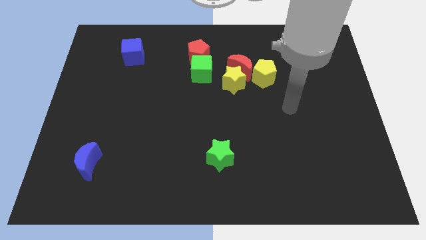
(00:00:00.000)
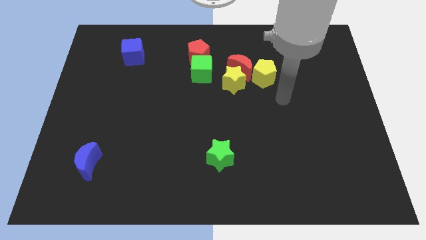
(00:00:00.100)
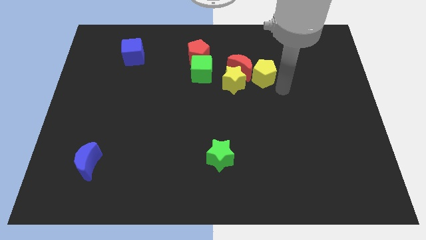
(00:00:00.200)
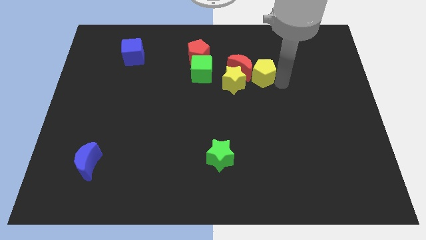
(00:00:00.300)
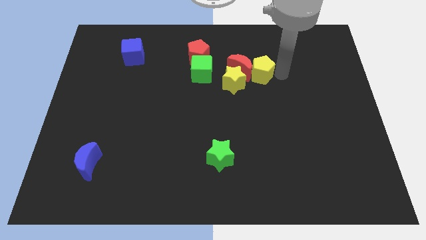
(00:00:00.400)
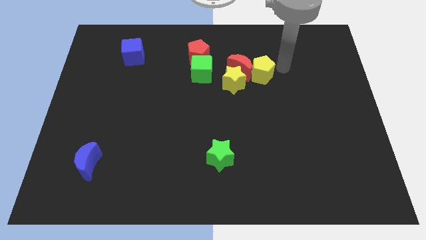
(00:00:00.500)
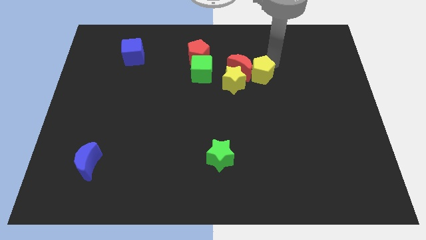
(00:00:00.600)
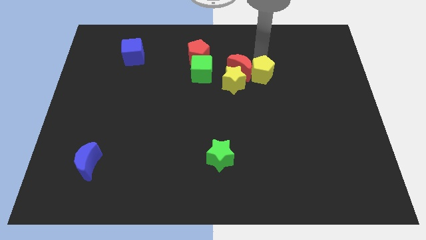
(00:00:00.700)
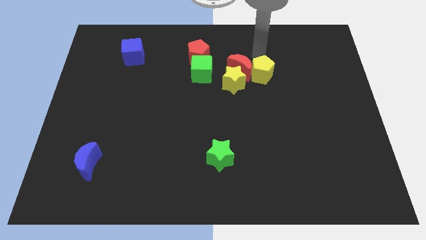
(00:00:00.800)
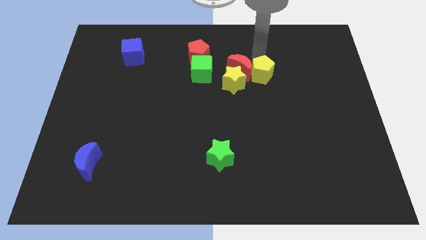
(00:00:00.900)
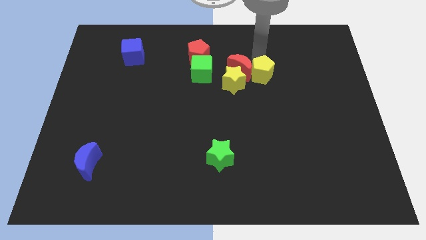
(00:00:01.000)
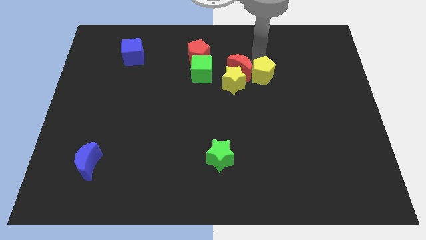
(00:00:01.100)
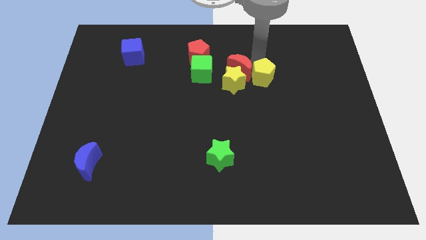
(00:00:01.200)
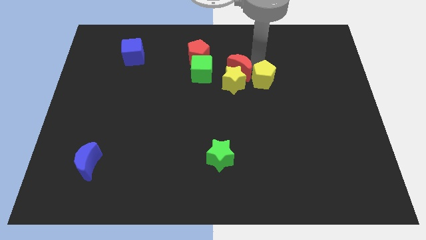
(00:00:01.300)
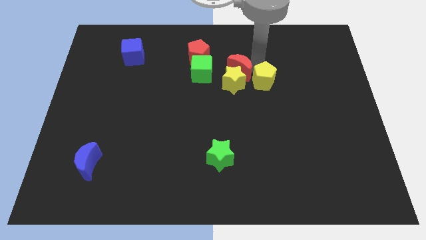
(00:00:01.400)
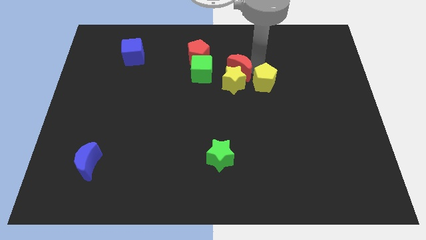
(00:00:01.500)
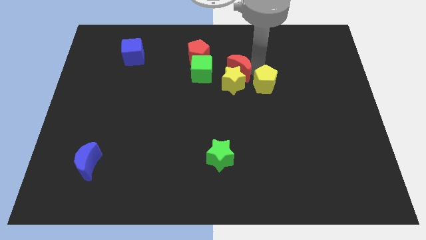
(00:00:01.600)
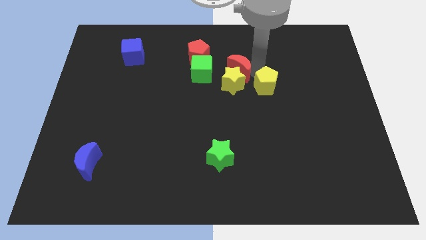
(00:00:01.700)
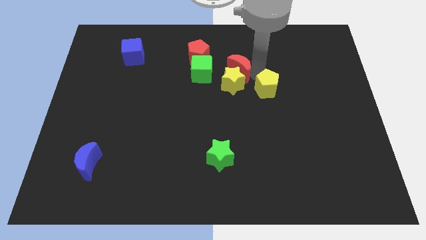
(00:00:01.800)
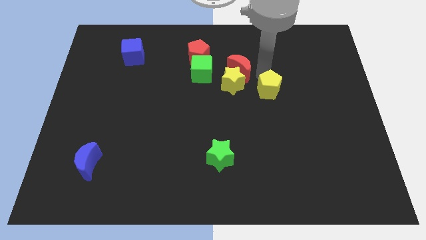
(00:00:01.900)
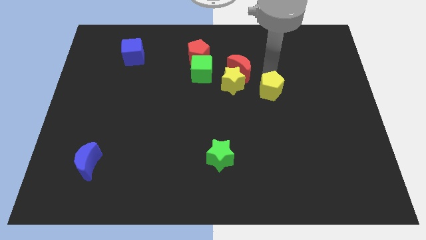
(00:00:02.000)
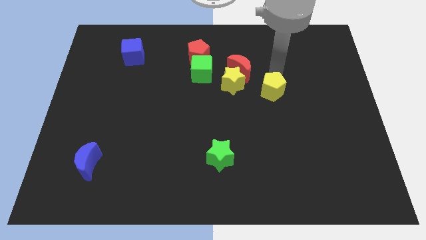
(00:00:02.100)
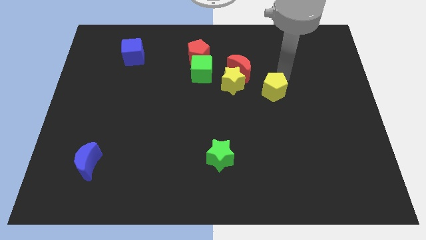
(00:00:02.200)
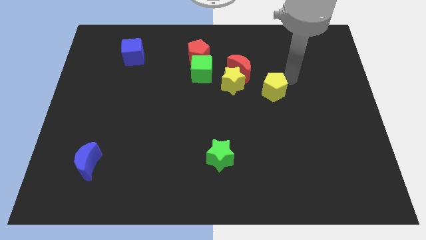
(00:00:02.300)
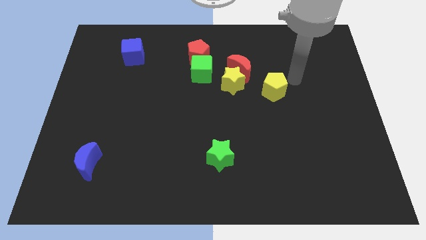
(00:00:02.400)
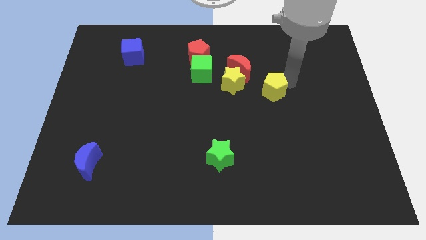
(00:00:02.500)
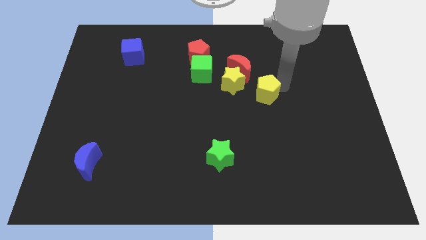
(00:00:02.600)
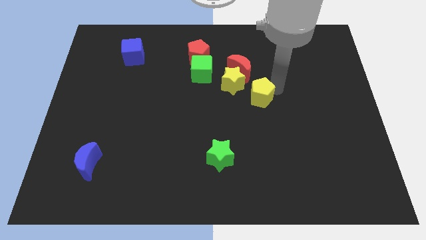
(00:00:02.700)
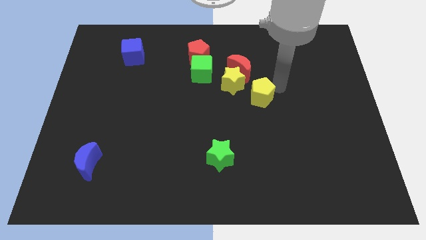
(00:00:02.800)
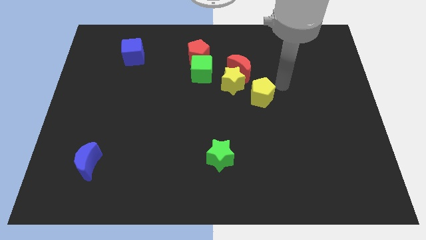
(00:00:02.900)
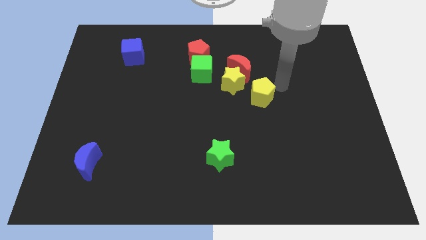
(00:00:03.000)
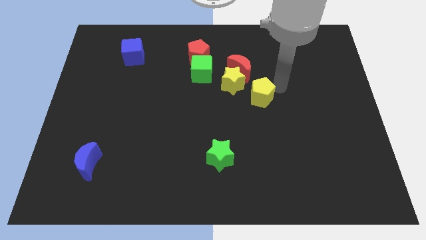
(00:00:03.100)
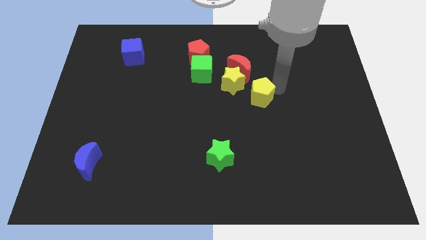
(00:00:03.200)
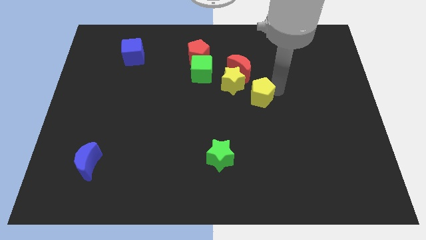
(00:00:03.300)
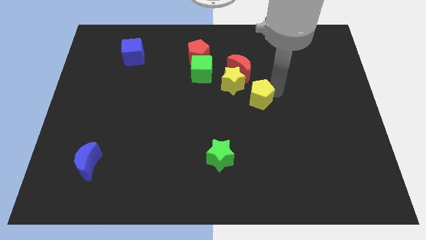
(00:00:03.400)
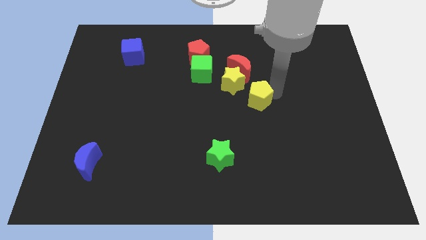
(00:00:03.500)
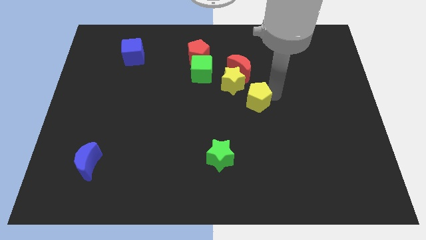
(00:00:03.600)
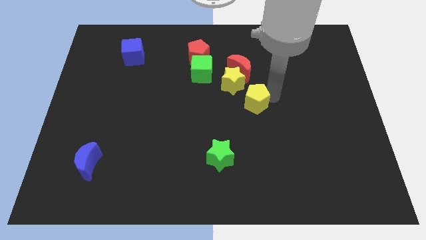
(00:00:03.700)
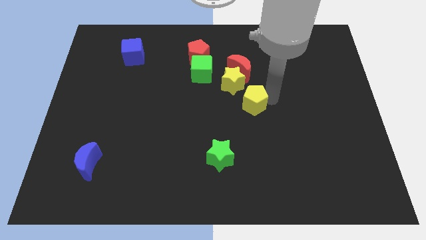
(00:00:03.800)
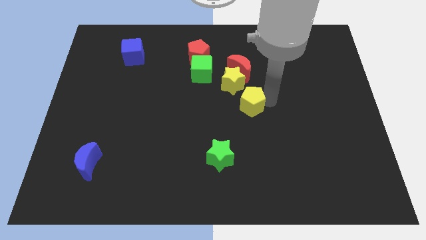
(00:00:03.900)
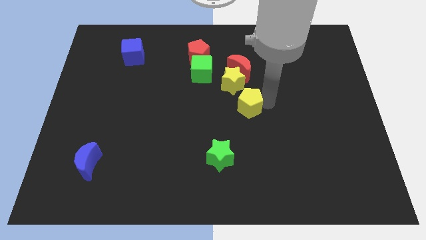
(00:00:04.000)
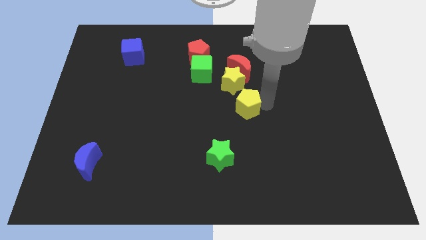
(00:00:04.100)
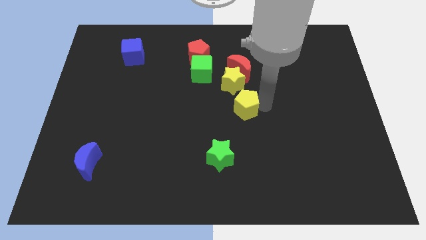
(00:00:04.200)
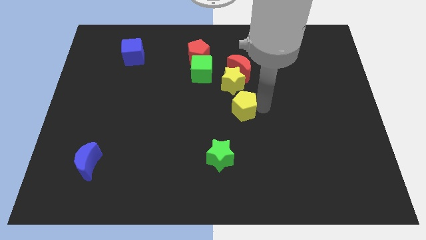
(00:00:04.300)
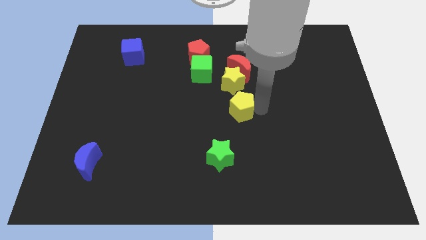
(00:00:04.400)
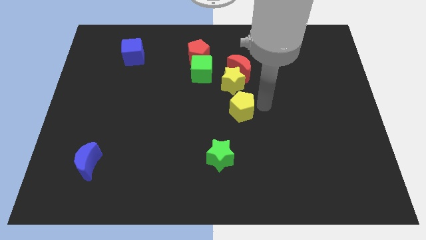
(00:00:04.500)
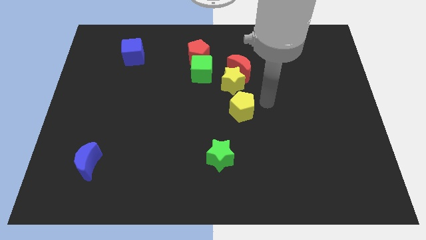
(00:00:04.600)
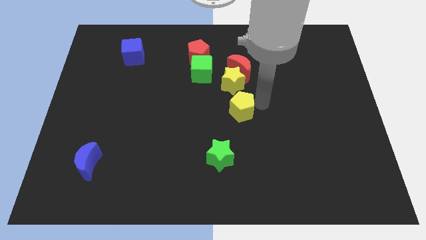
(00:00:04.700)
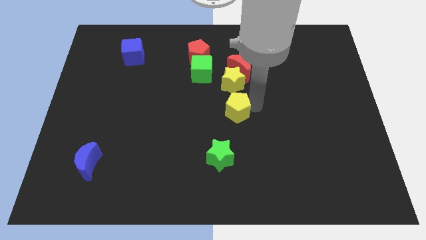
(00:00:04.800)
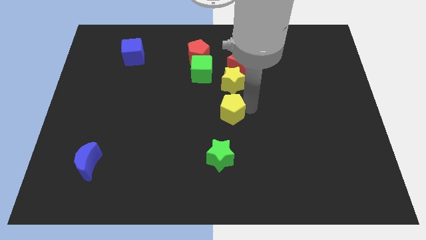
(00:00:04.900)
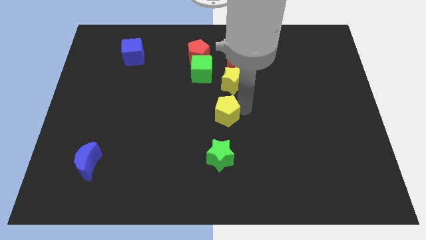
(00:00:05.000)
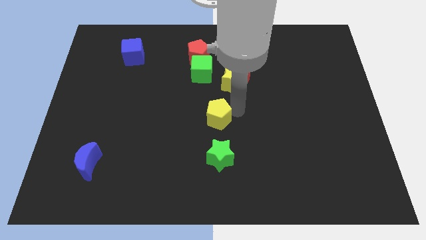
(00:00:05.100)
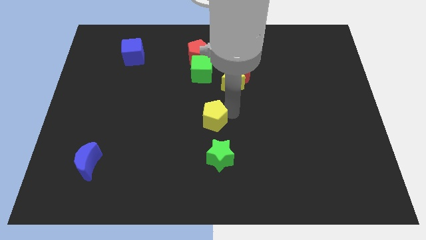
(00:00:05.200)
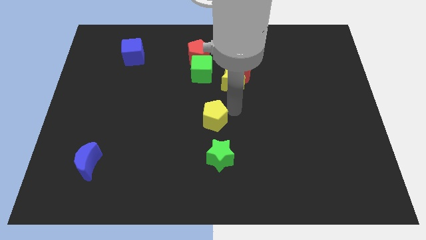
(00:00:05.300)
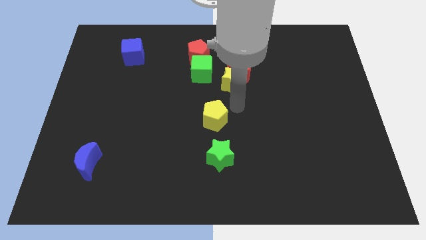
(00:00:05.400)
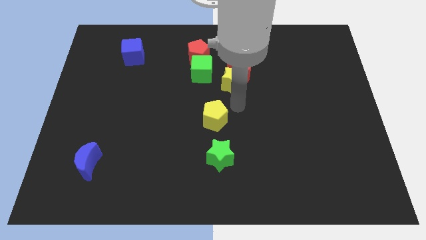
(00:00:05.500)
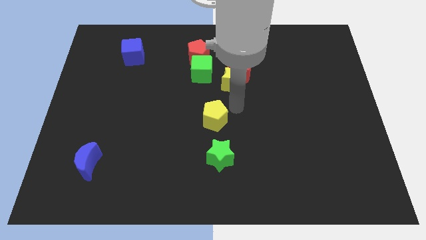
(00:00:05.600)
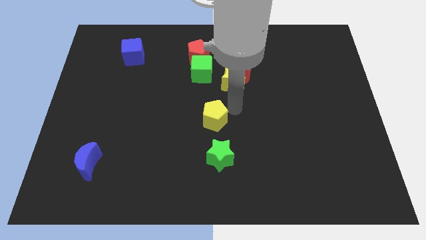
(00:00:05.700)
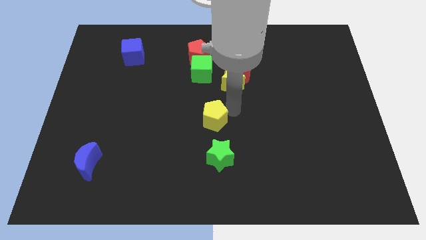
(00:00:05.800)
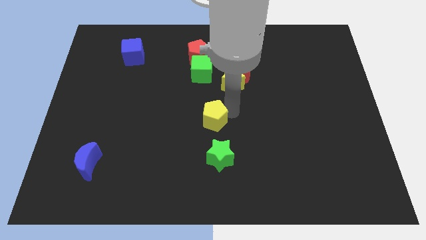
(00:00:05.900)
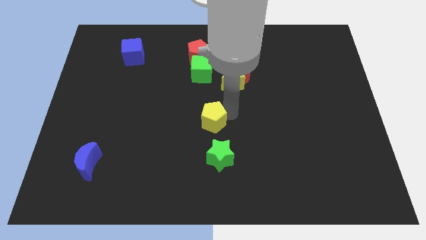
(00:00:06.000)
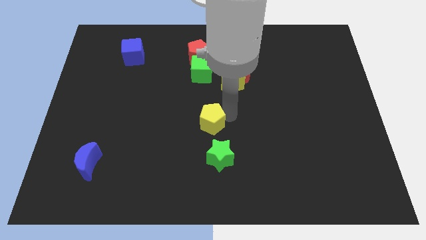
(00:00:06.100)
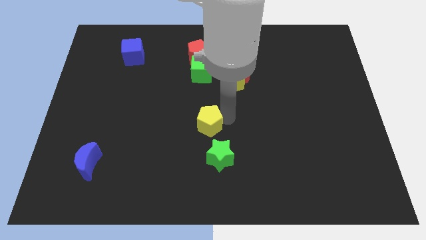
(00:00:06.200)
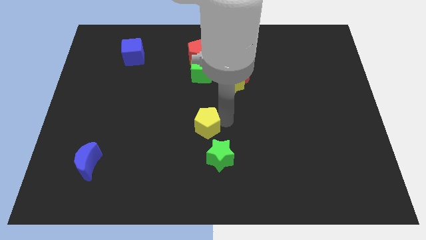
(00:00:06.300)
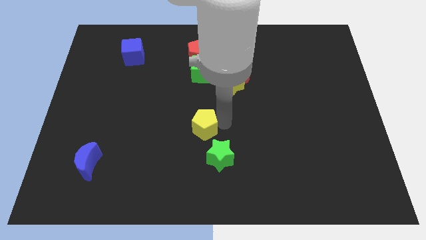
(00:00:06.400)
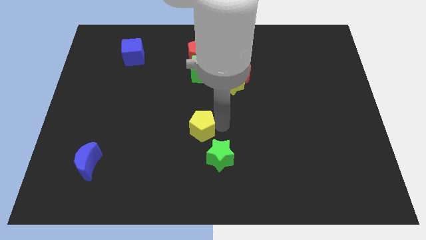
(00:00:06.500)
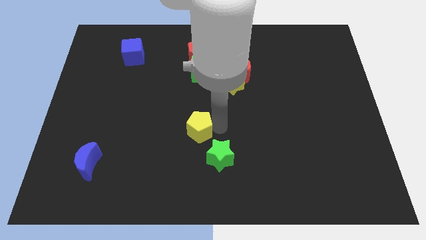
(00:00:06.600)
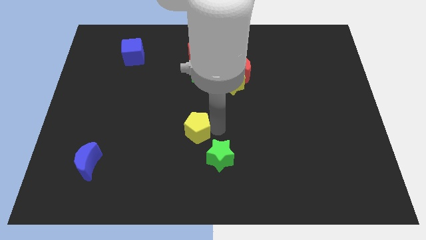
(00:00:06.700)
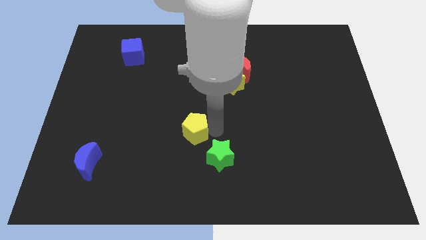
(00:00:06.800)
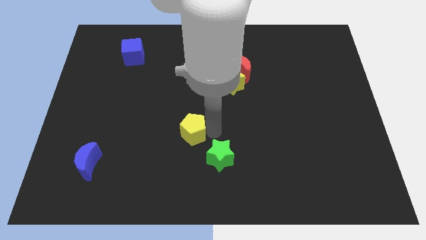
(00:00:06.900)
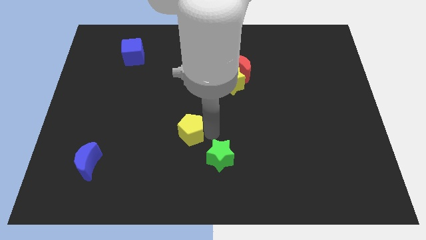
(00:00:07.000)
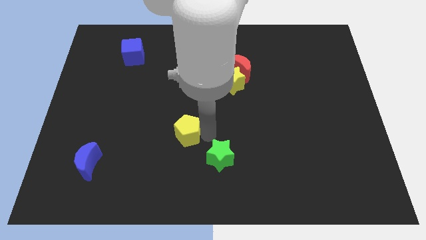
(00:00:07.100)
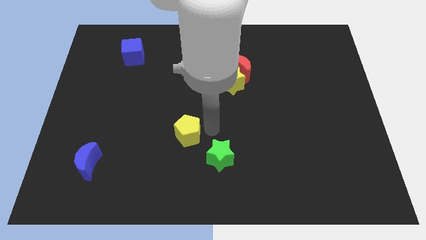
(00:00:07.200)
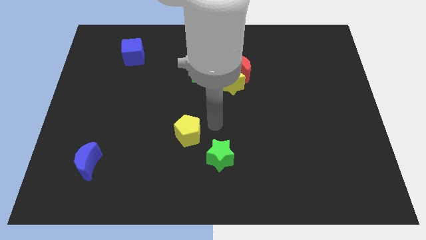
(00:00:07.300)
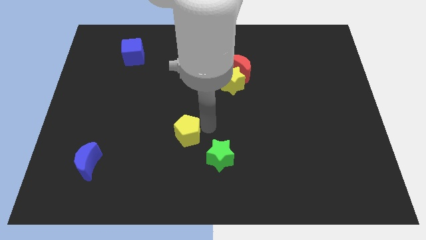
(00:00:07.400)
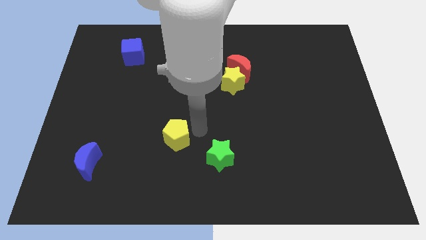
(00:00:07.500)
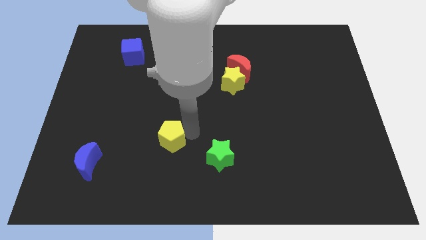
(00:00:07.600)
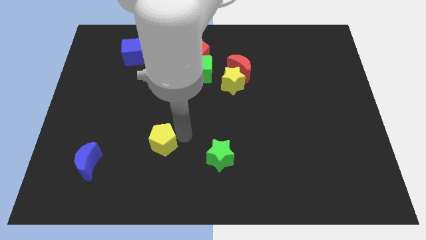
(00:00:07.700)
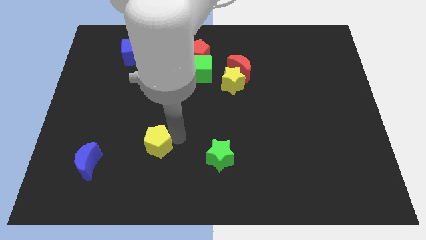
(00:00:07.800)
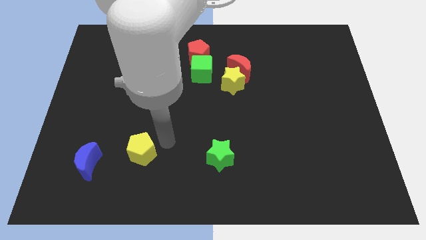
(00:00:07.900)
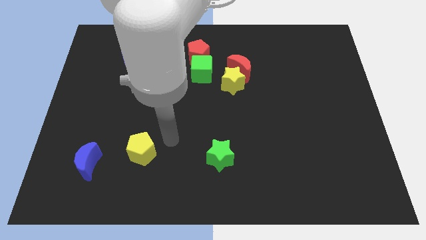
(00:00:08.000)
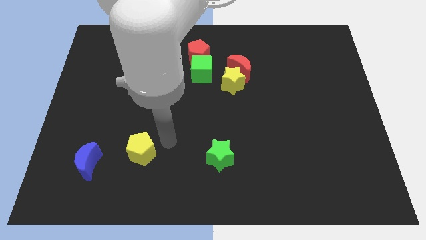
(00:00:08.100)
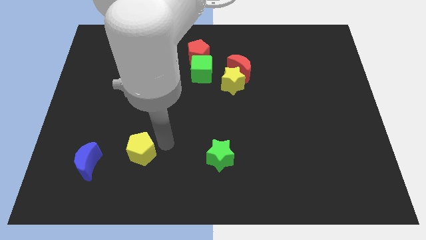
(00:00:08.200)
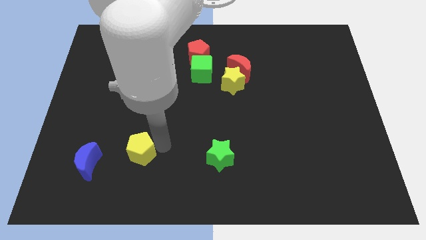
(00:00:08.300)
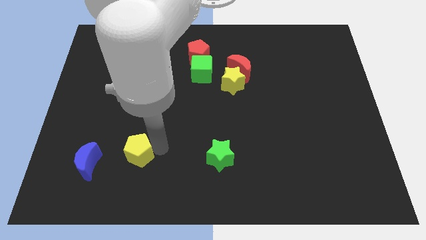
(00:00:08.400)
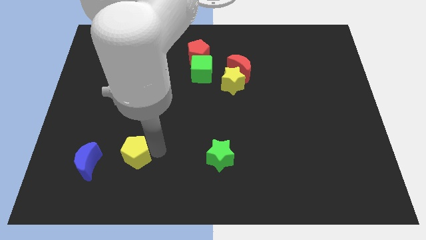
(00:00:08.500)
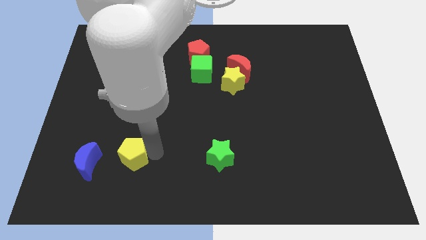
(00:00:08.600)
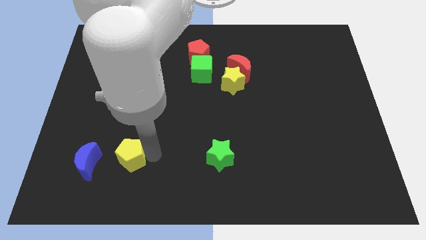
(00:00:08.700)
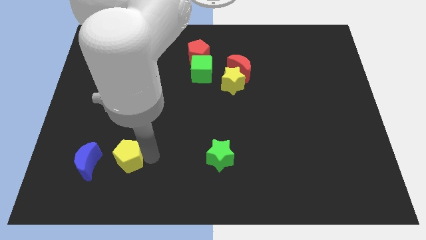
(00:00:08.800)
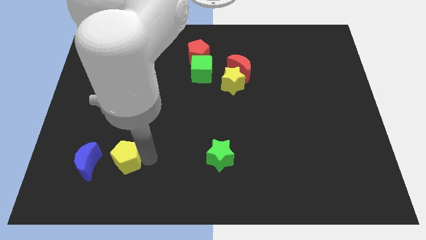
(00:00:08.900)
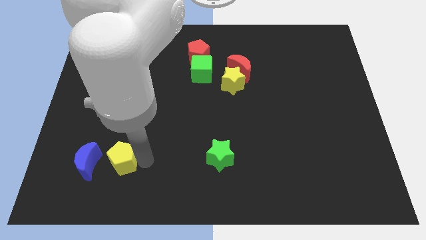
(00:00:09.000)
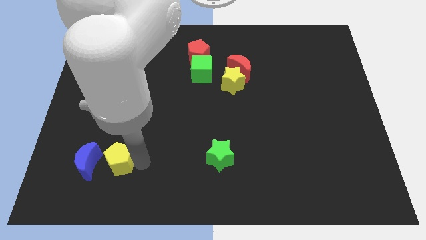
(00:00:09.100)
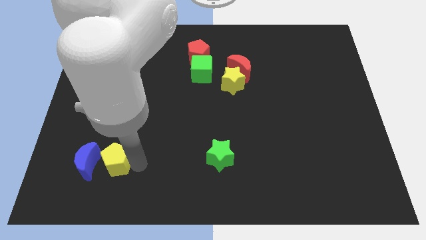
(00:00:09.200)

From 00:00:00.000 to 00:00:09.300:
move the yellow pentagon to the blue moon
